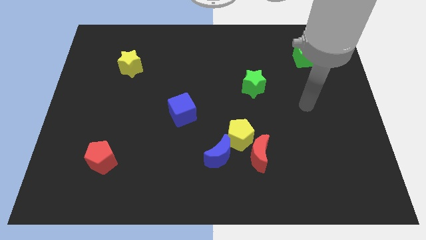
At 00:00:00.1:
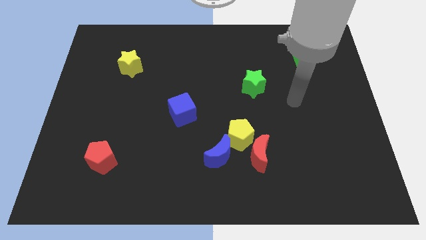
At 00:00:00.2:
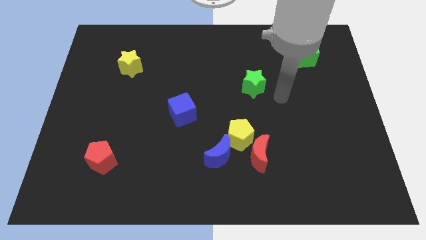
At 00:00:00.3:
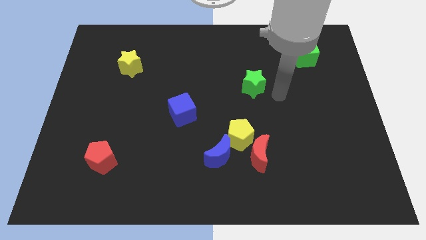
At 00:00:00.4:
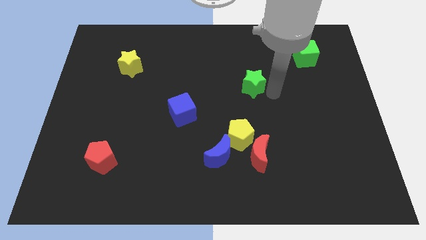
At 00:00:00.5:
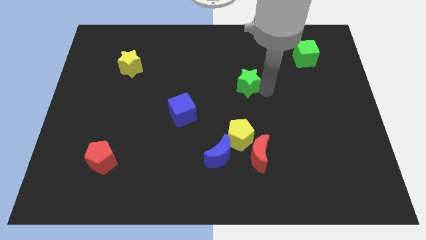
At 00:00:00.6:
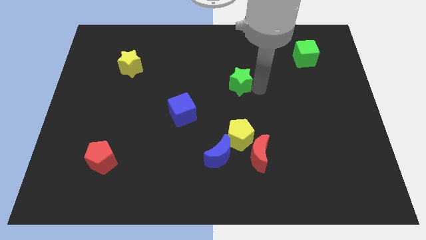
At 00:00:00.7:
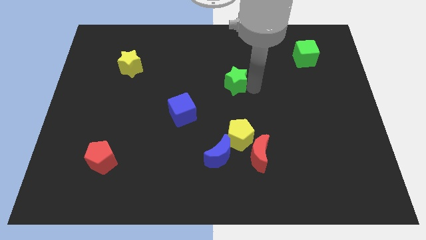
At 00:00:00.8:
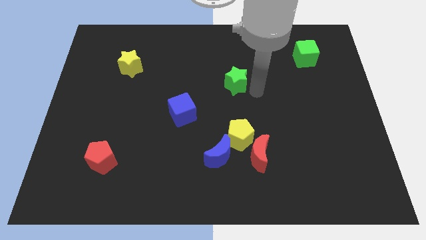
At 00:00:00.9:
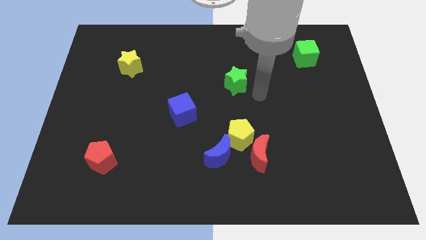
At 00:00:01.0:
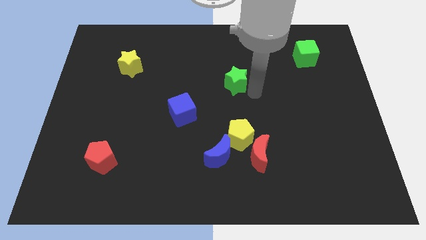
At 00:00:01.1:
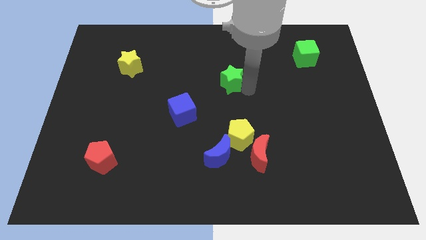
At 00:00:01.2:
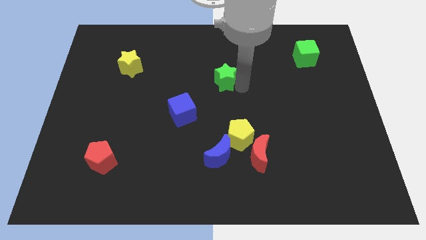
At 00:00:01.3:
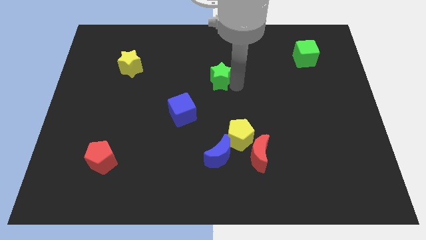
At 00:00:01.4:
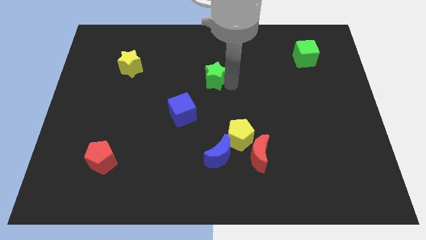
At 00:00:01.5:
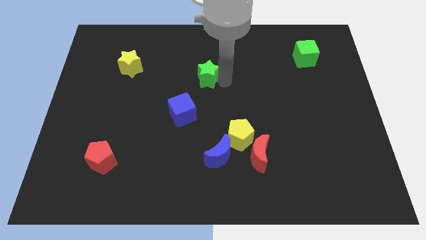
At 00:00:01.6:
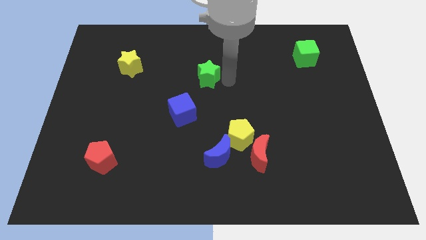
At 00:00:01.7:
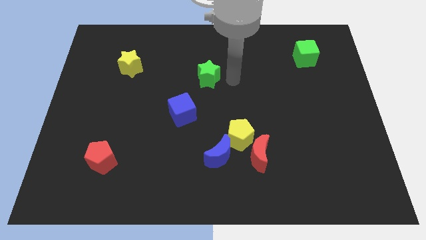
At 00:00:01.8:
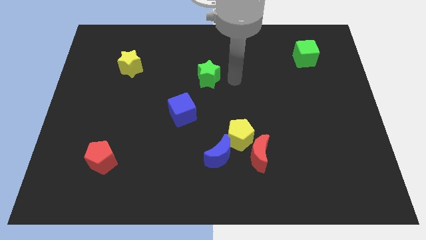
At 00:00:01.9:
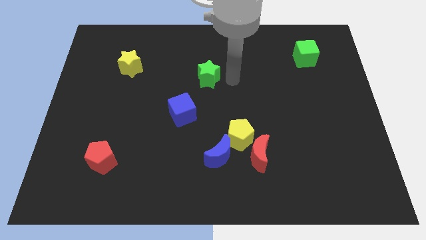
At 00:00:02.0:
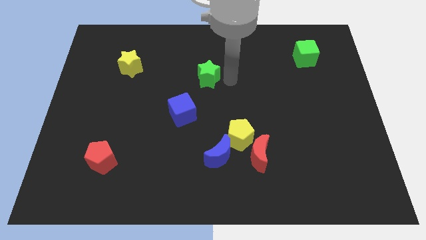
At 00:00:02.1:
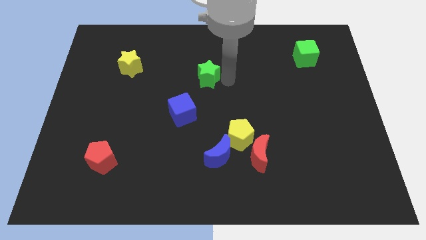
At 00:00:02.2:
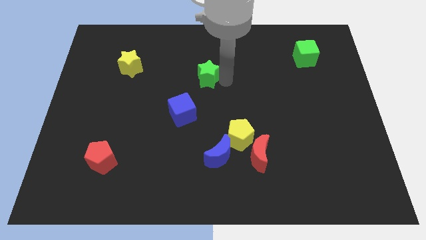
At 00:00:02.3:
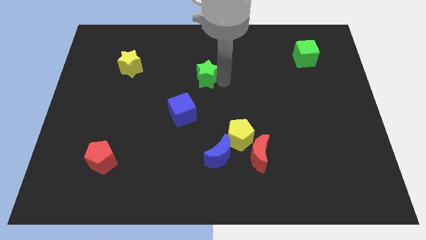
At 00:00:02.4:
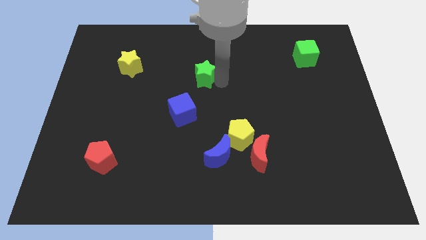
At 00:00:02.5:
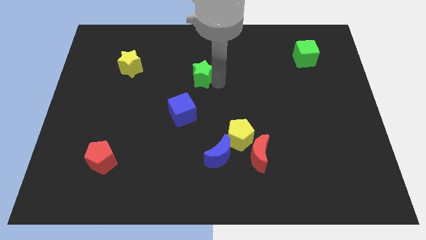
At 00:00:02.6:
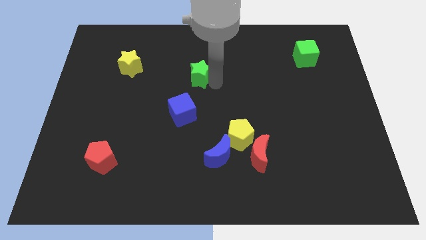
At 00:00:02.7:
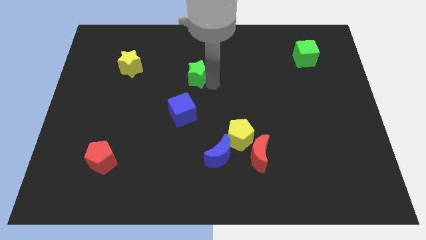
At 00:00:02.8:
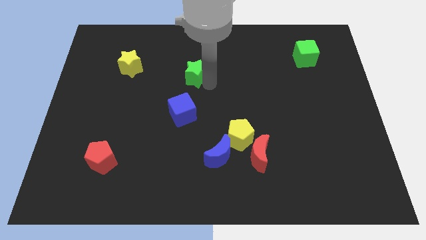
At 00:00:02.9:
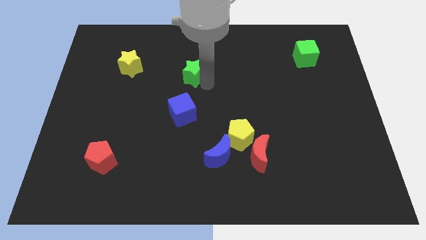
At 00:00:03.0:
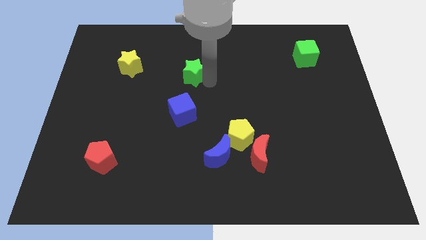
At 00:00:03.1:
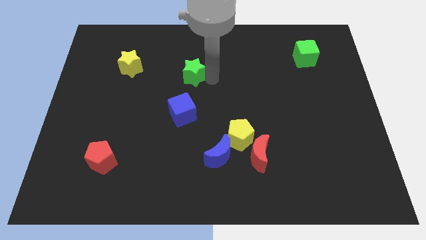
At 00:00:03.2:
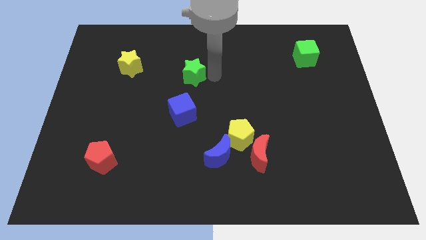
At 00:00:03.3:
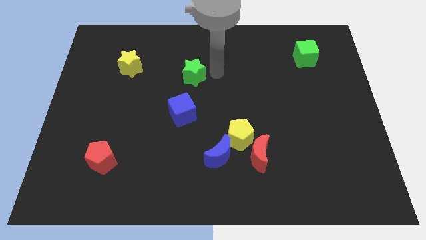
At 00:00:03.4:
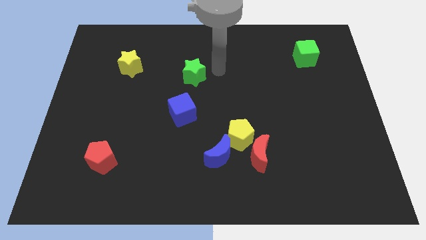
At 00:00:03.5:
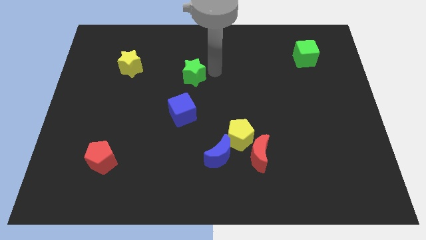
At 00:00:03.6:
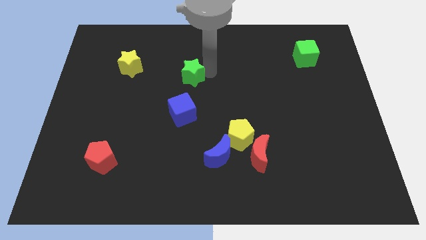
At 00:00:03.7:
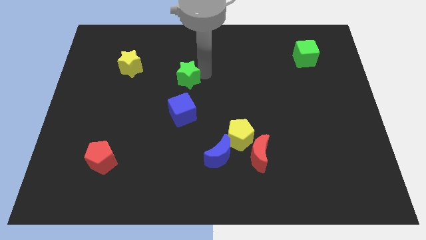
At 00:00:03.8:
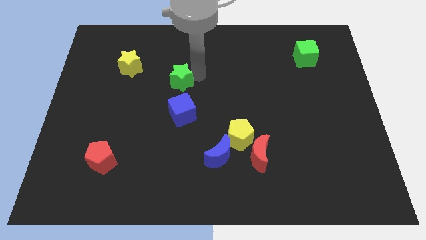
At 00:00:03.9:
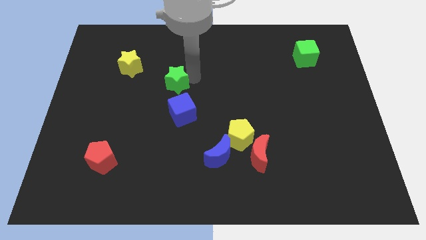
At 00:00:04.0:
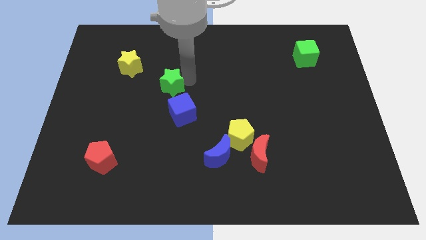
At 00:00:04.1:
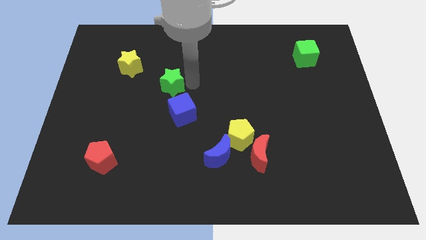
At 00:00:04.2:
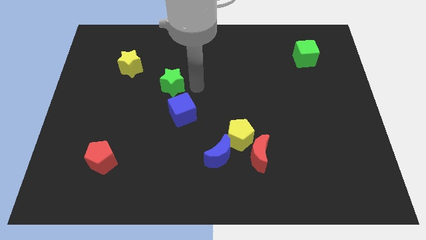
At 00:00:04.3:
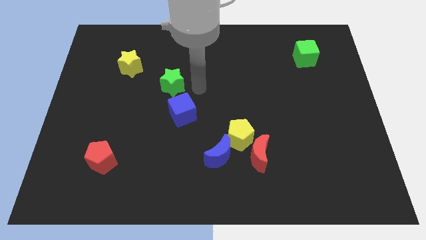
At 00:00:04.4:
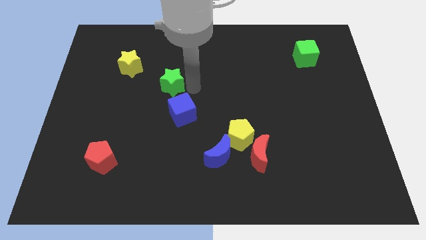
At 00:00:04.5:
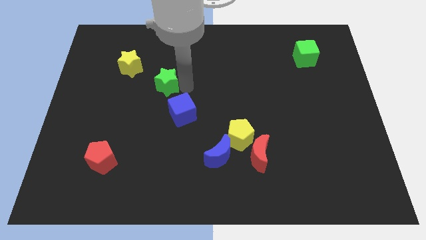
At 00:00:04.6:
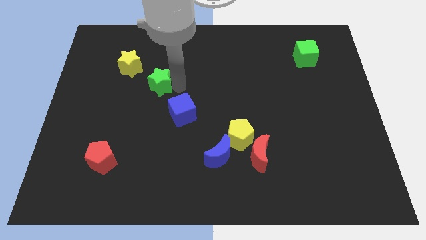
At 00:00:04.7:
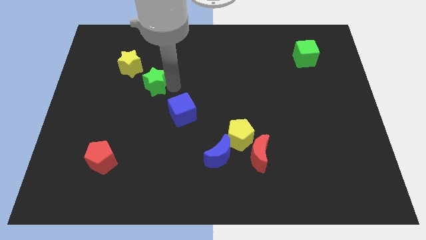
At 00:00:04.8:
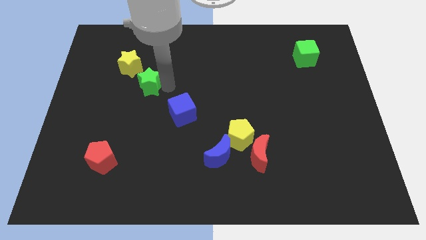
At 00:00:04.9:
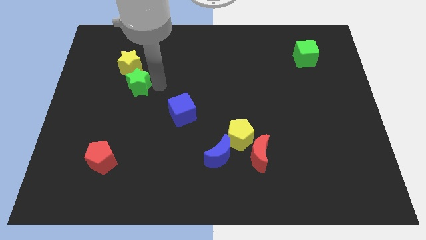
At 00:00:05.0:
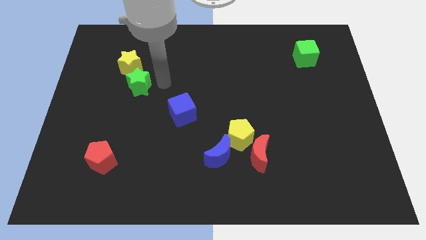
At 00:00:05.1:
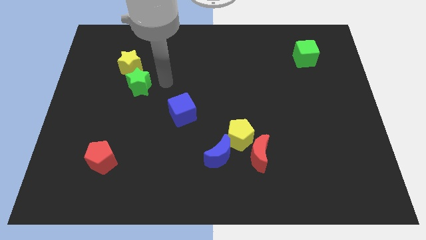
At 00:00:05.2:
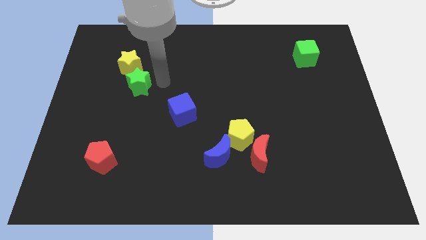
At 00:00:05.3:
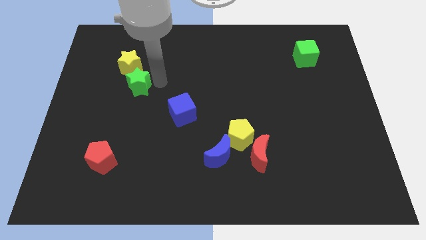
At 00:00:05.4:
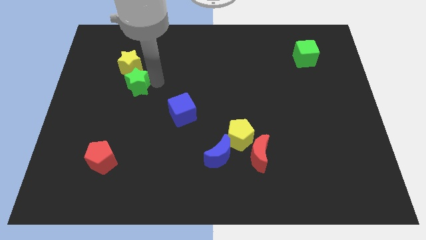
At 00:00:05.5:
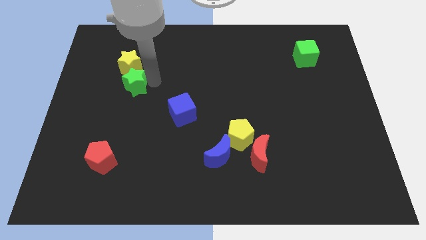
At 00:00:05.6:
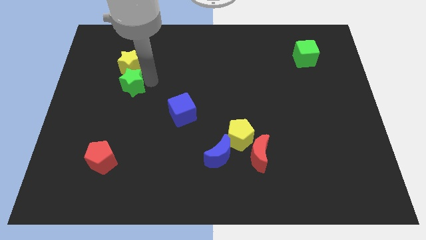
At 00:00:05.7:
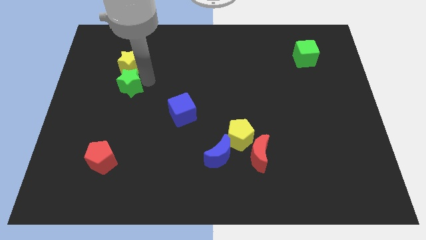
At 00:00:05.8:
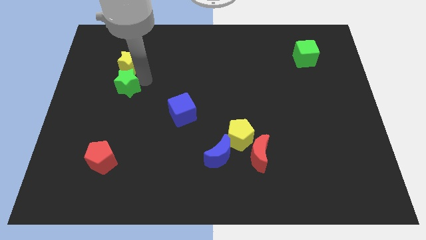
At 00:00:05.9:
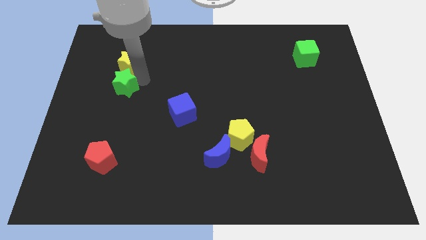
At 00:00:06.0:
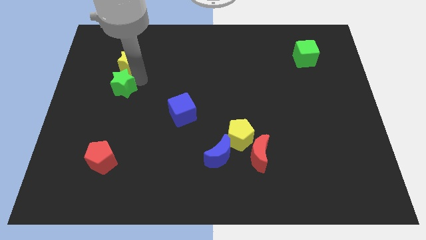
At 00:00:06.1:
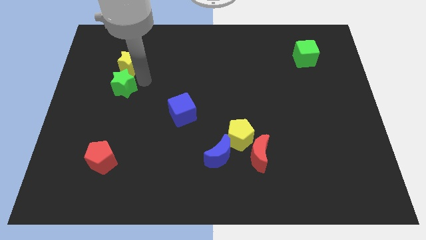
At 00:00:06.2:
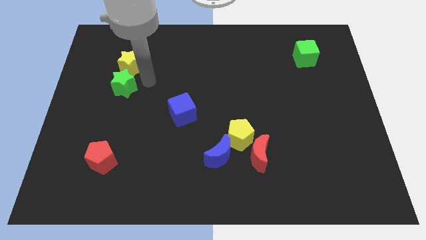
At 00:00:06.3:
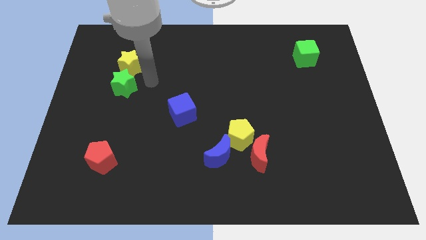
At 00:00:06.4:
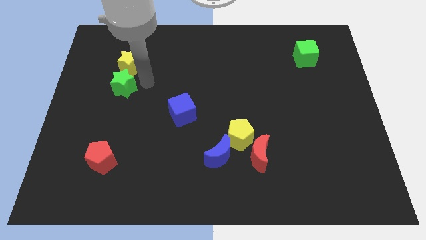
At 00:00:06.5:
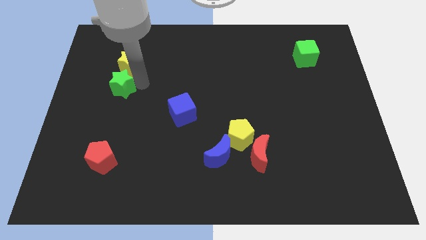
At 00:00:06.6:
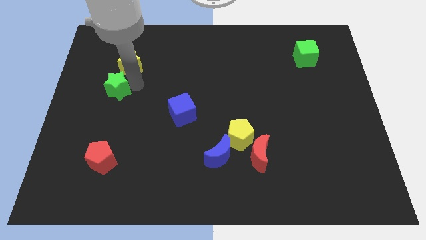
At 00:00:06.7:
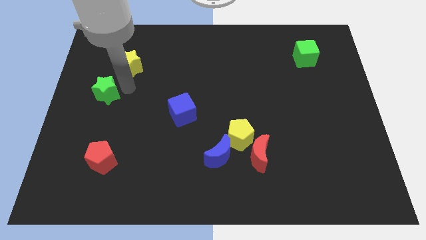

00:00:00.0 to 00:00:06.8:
put the green star to the left side

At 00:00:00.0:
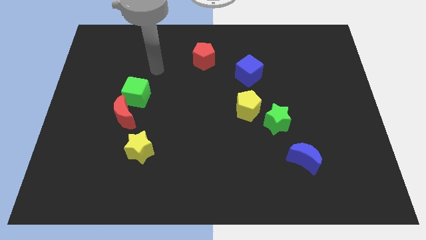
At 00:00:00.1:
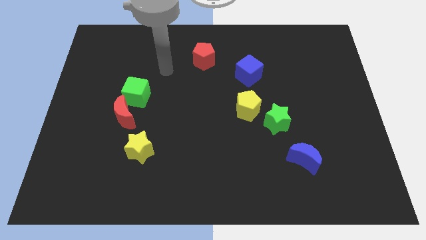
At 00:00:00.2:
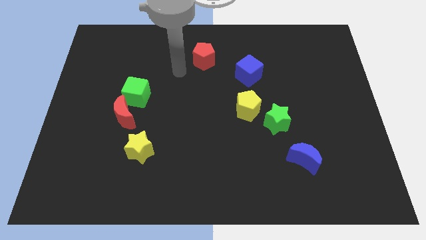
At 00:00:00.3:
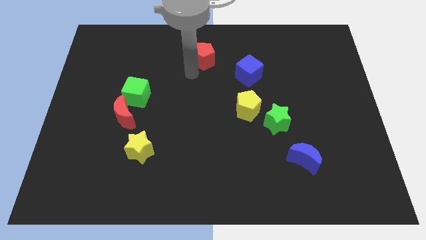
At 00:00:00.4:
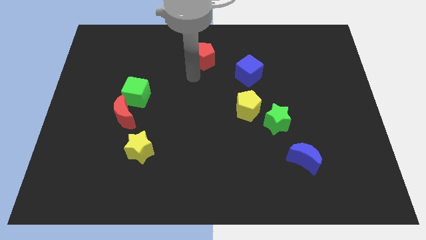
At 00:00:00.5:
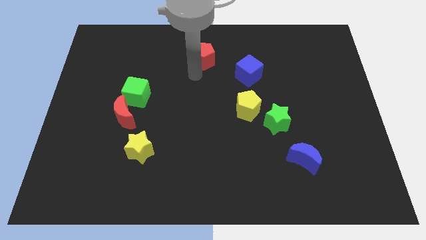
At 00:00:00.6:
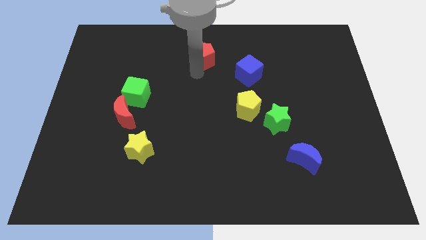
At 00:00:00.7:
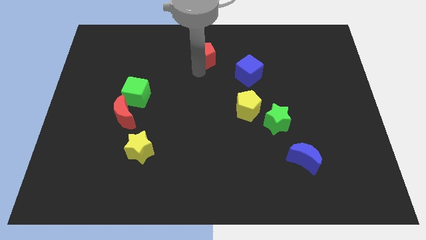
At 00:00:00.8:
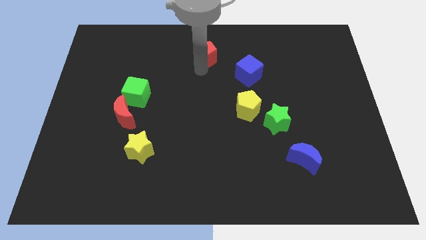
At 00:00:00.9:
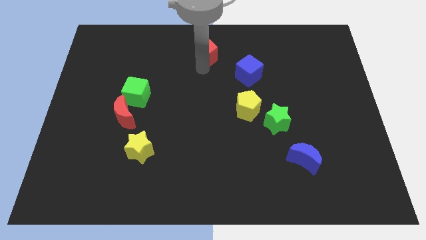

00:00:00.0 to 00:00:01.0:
move the red pentagon to the top side
